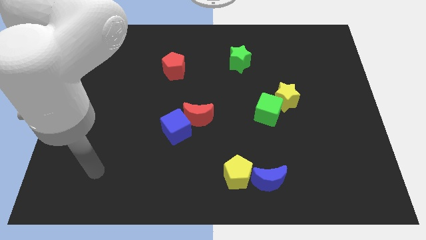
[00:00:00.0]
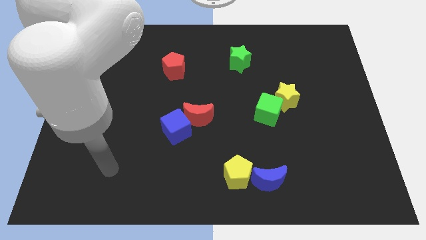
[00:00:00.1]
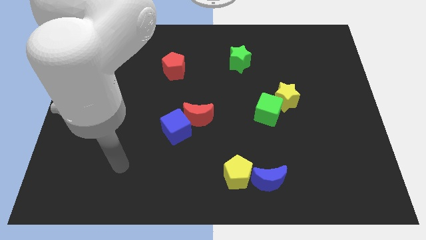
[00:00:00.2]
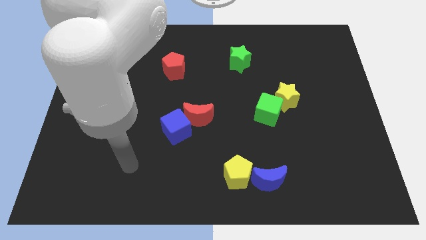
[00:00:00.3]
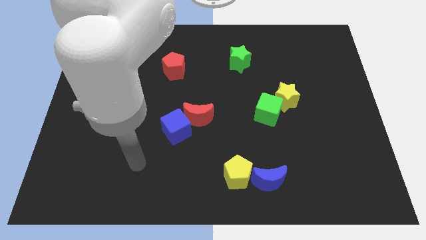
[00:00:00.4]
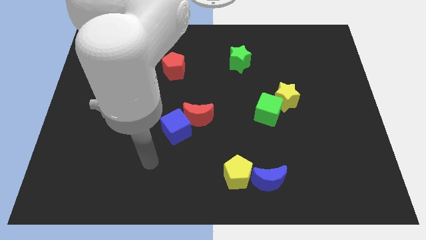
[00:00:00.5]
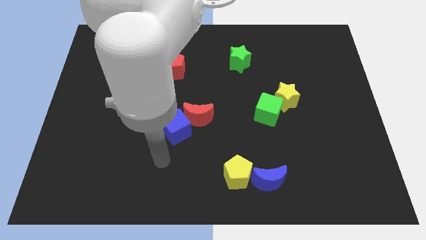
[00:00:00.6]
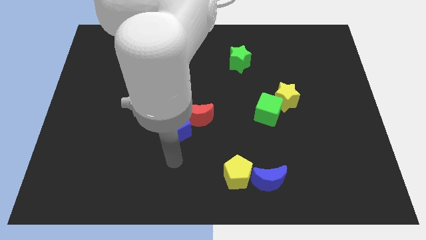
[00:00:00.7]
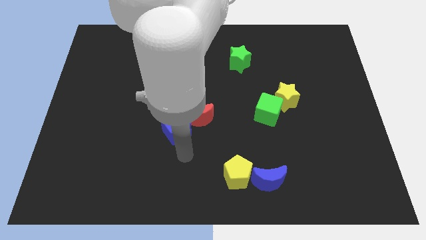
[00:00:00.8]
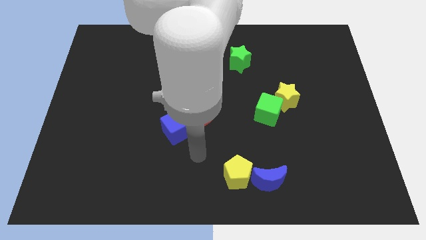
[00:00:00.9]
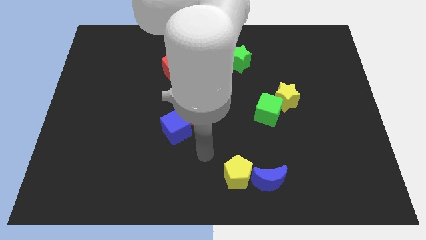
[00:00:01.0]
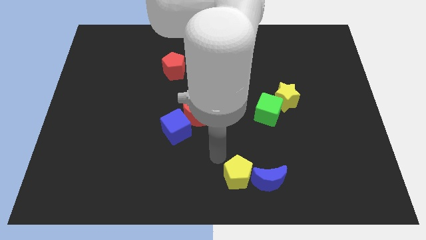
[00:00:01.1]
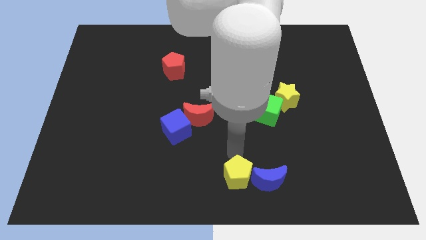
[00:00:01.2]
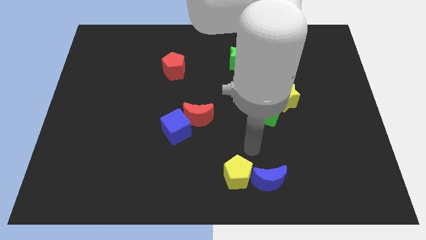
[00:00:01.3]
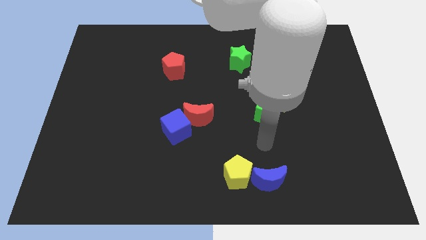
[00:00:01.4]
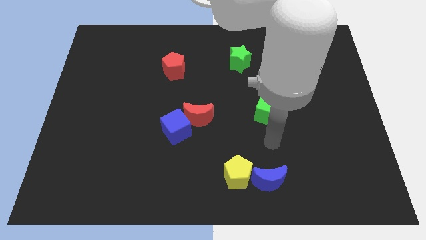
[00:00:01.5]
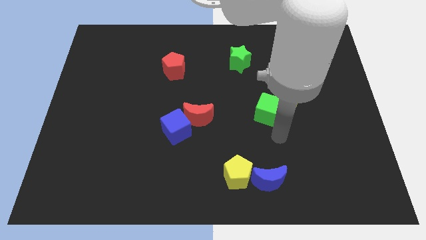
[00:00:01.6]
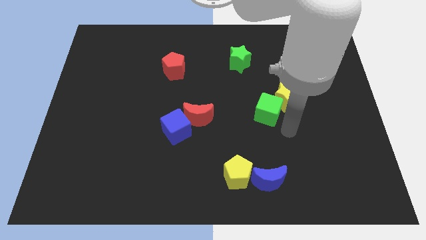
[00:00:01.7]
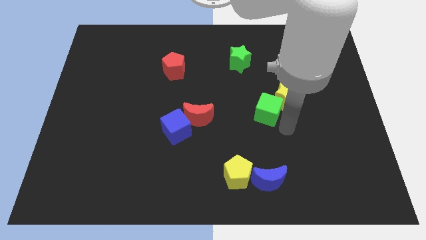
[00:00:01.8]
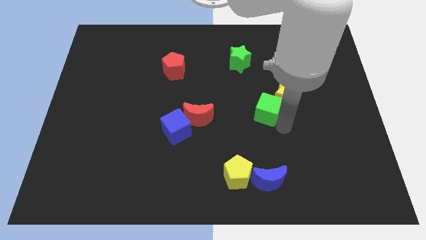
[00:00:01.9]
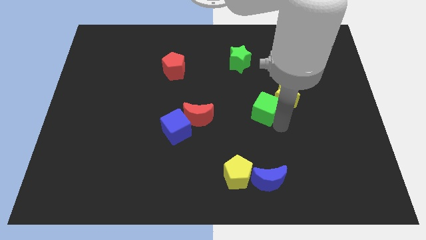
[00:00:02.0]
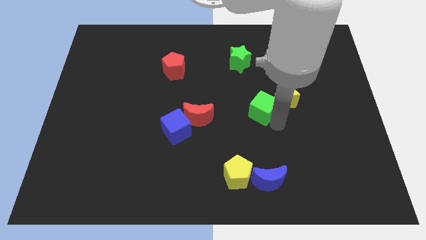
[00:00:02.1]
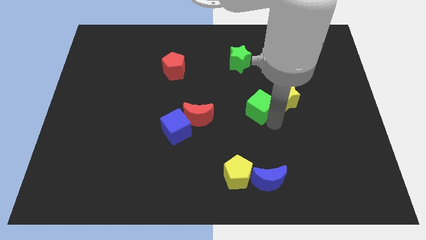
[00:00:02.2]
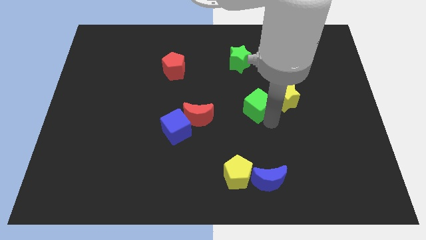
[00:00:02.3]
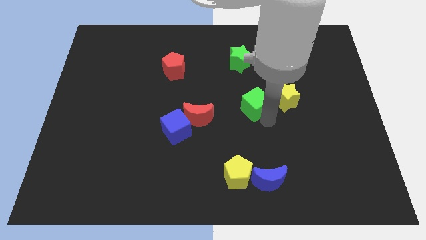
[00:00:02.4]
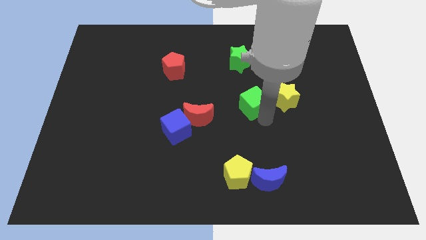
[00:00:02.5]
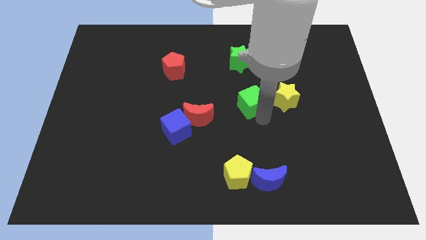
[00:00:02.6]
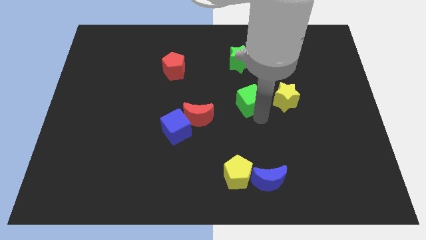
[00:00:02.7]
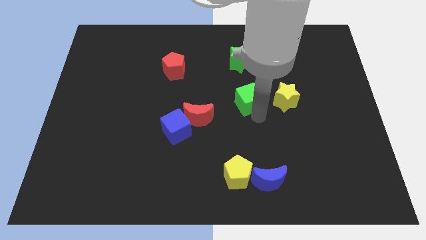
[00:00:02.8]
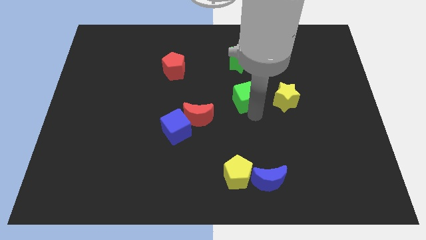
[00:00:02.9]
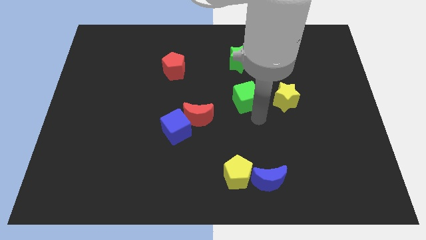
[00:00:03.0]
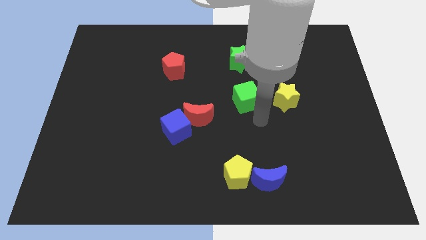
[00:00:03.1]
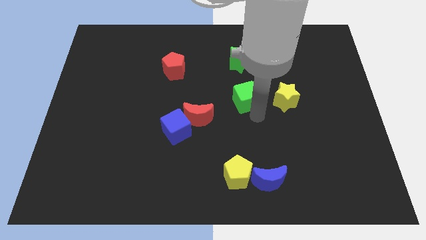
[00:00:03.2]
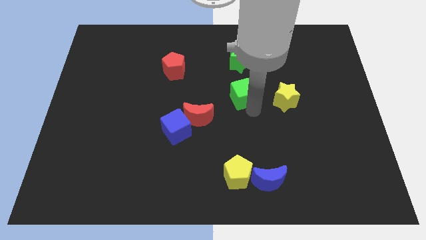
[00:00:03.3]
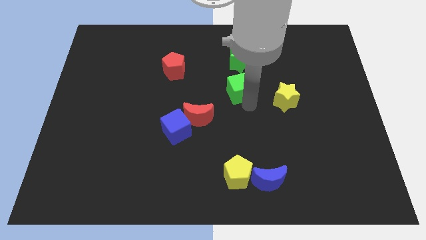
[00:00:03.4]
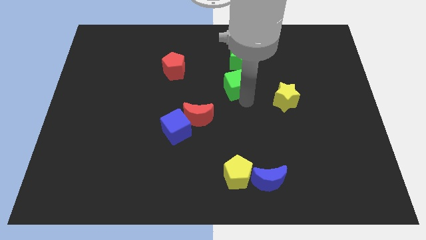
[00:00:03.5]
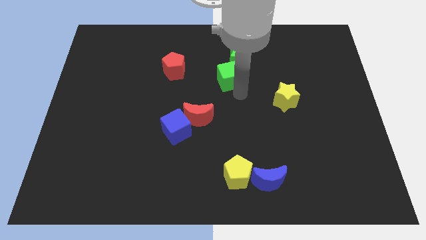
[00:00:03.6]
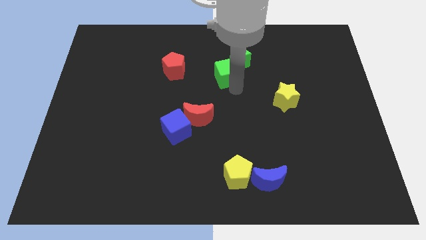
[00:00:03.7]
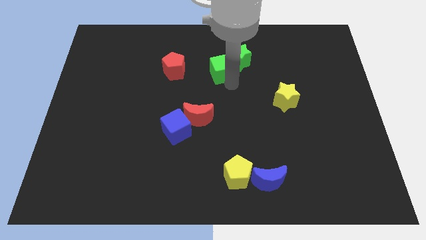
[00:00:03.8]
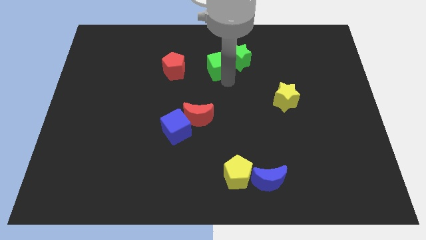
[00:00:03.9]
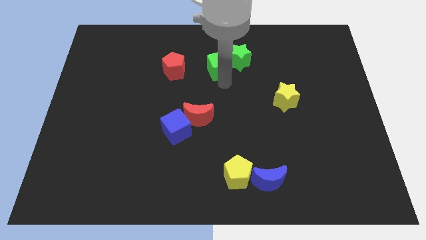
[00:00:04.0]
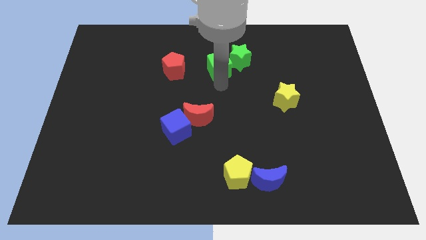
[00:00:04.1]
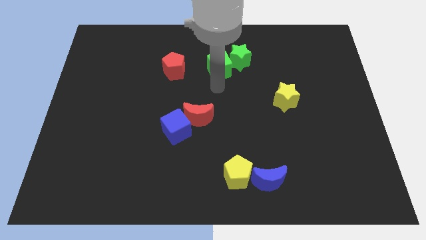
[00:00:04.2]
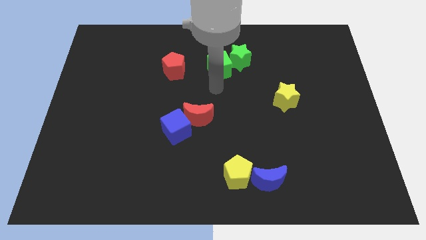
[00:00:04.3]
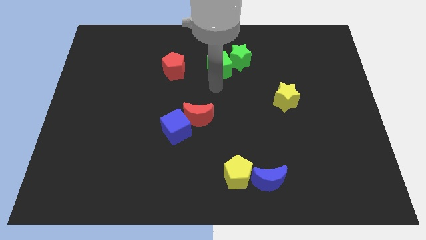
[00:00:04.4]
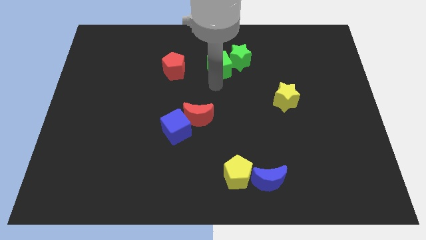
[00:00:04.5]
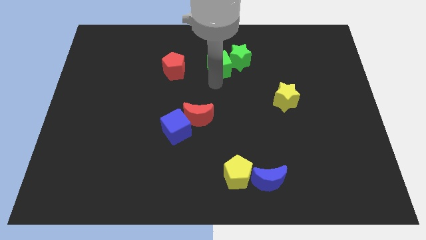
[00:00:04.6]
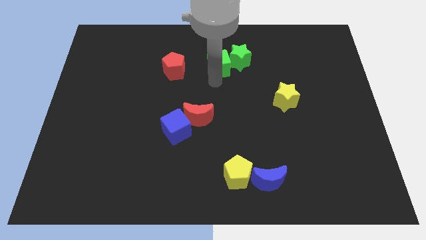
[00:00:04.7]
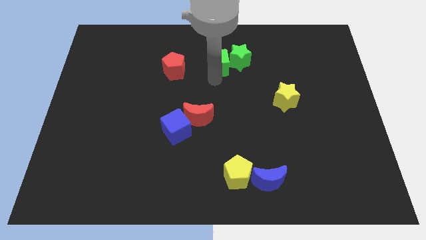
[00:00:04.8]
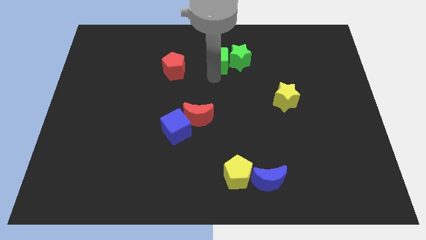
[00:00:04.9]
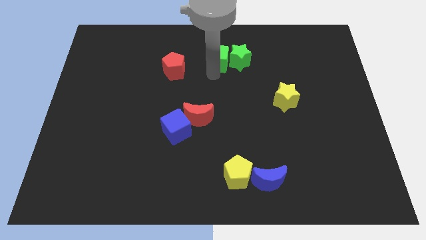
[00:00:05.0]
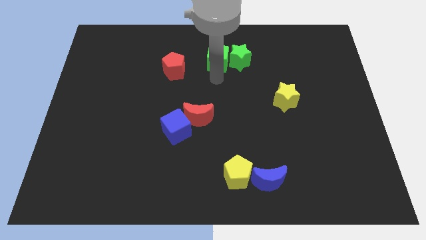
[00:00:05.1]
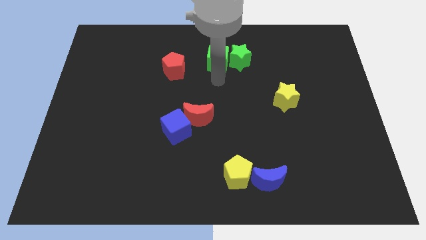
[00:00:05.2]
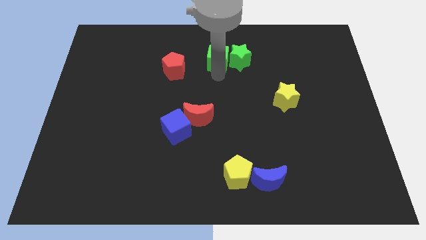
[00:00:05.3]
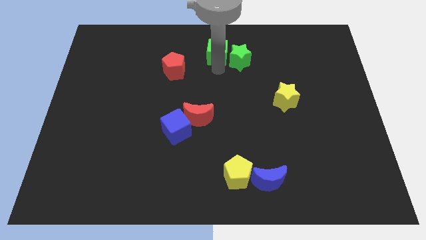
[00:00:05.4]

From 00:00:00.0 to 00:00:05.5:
put the green cube to the top side

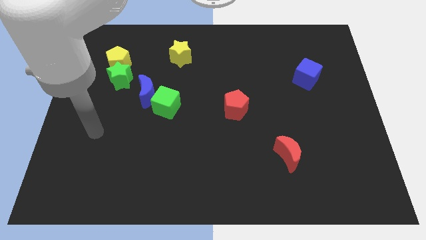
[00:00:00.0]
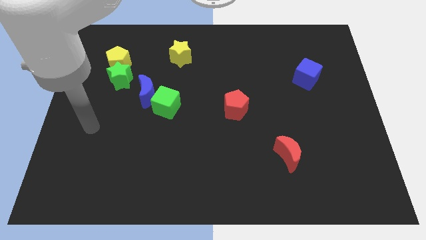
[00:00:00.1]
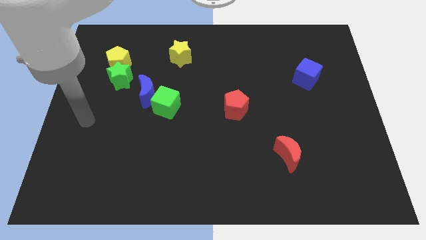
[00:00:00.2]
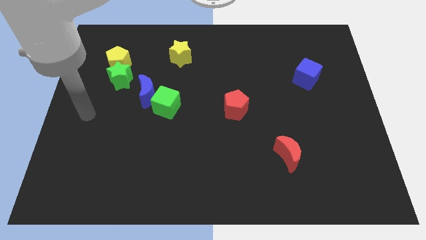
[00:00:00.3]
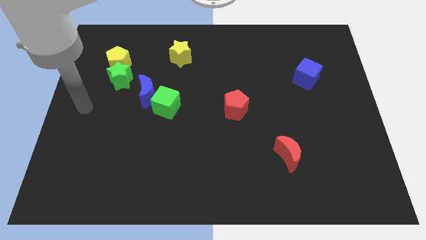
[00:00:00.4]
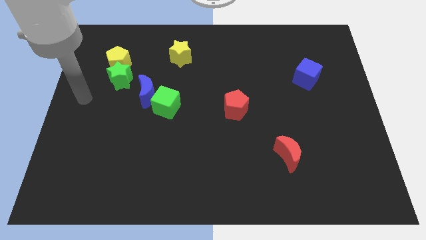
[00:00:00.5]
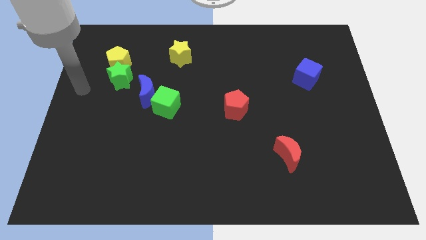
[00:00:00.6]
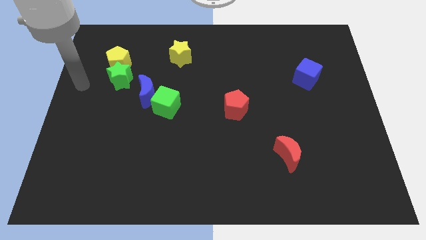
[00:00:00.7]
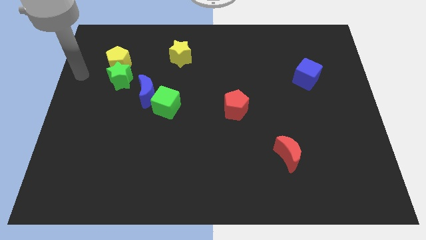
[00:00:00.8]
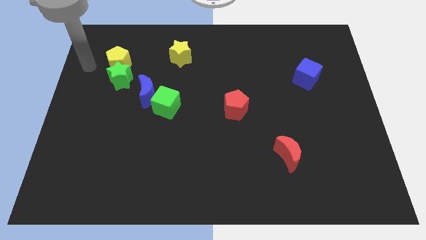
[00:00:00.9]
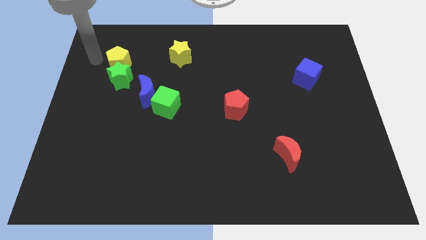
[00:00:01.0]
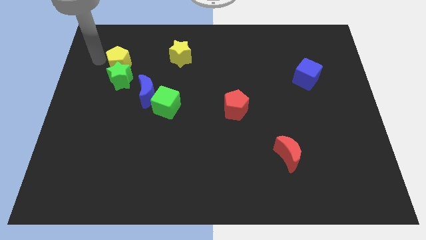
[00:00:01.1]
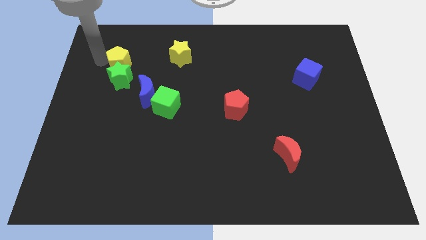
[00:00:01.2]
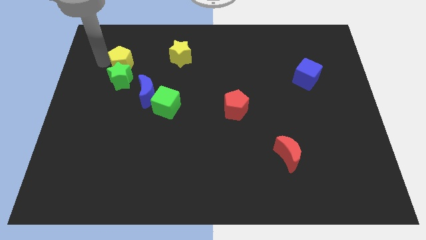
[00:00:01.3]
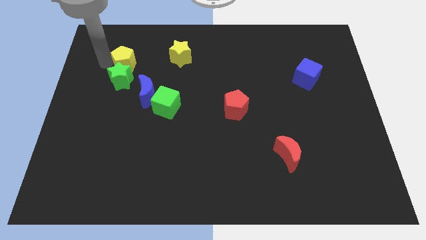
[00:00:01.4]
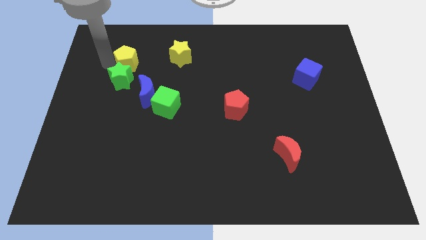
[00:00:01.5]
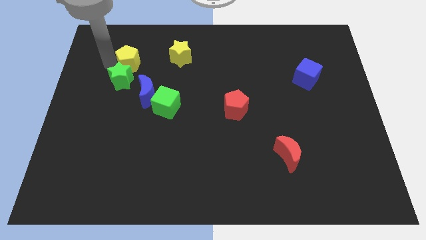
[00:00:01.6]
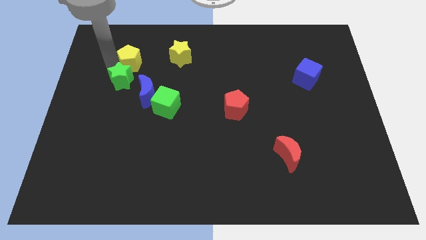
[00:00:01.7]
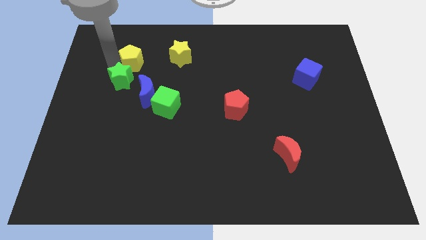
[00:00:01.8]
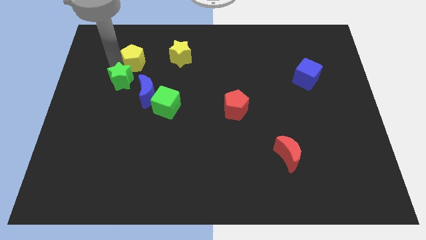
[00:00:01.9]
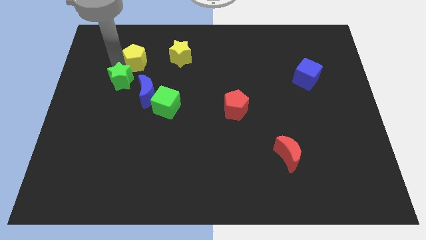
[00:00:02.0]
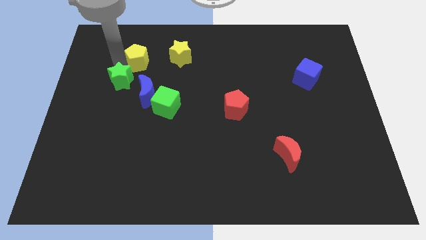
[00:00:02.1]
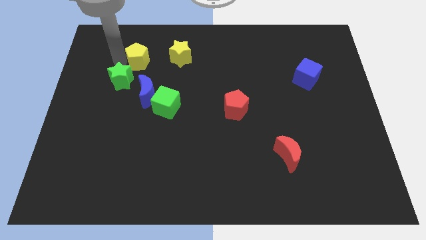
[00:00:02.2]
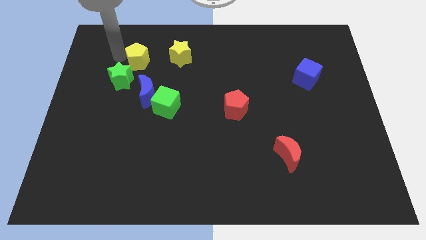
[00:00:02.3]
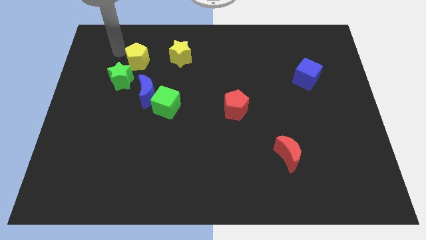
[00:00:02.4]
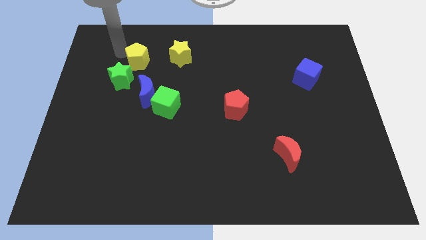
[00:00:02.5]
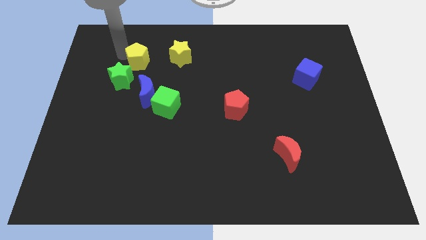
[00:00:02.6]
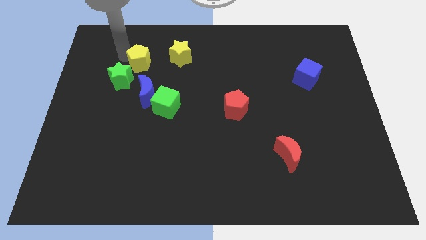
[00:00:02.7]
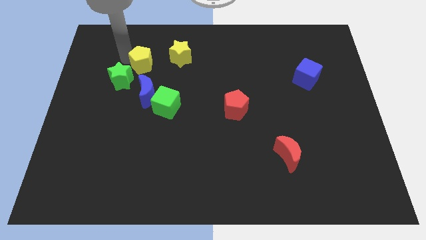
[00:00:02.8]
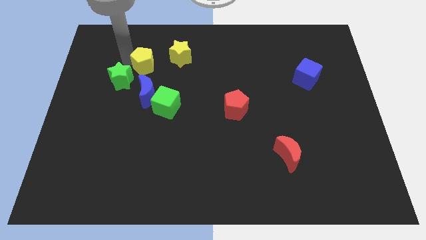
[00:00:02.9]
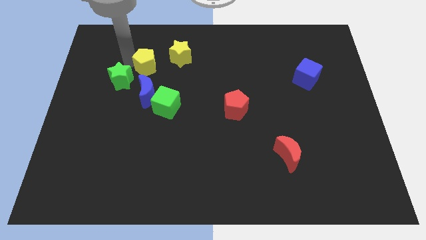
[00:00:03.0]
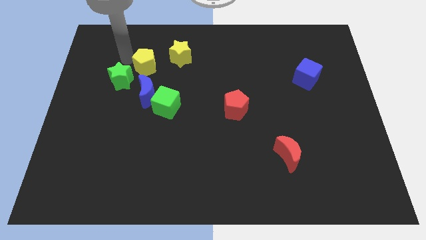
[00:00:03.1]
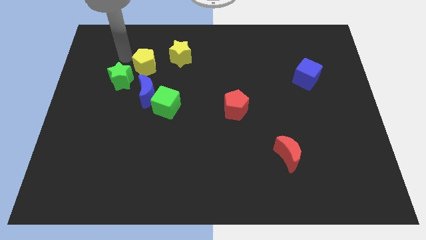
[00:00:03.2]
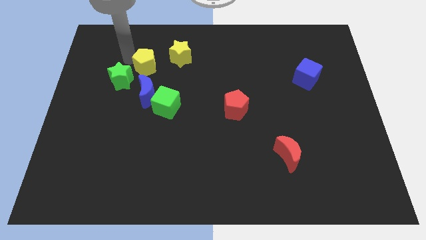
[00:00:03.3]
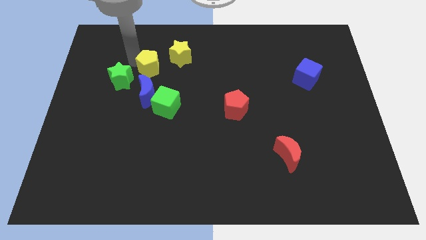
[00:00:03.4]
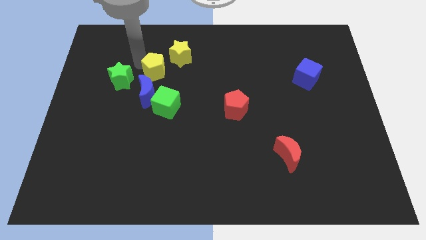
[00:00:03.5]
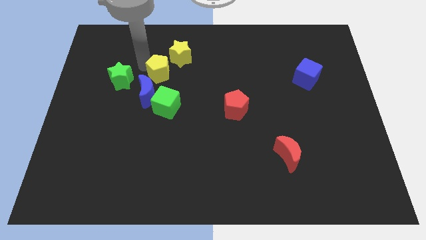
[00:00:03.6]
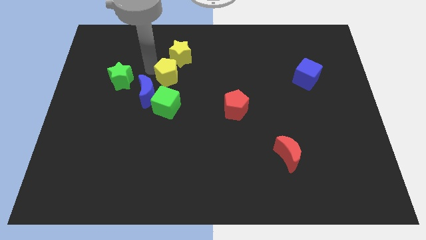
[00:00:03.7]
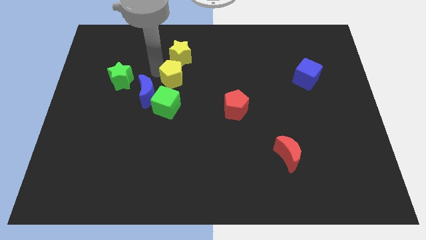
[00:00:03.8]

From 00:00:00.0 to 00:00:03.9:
put the yellow pentagon to the middle
